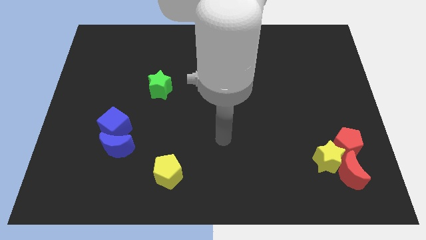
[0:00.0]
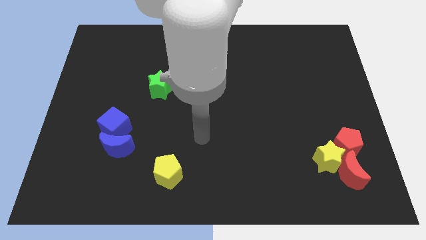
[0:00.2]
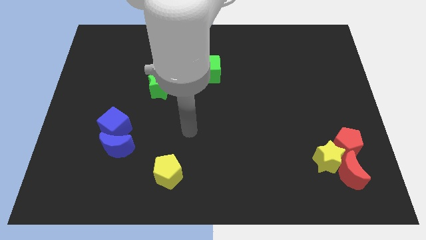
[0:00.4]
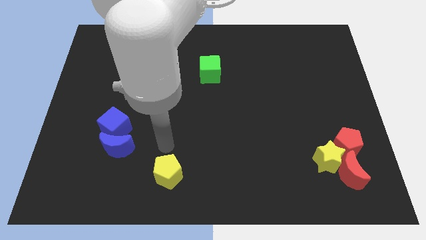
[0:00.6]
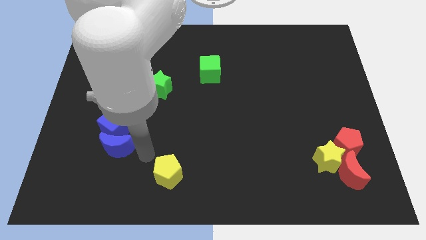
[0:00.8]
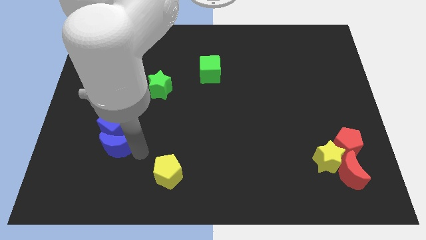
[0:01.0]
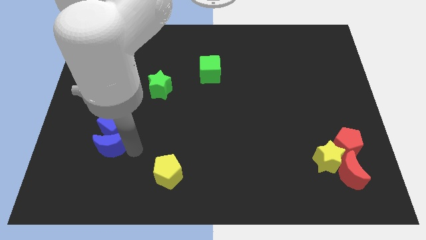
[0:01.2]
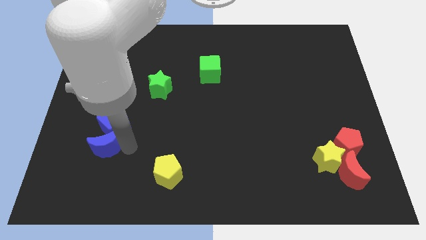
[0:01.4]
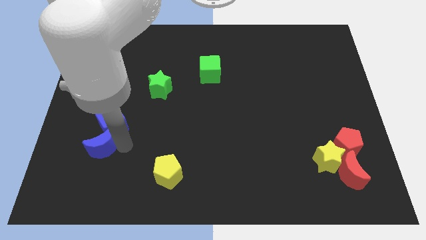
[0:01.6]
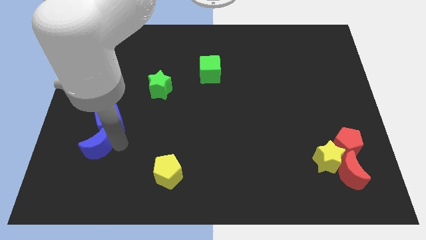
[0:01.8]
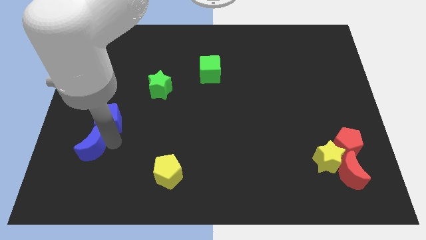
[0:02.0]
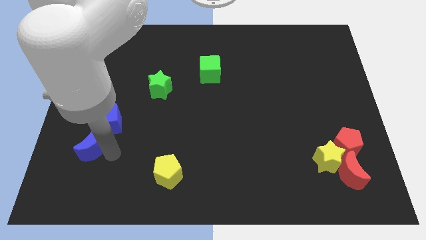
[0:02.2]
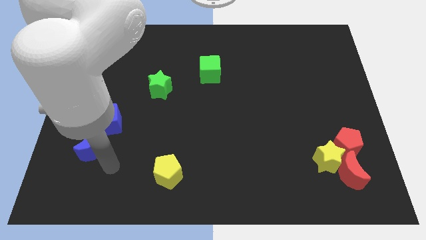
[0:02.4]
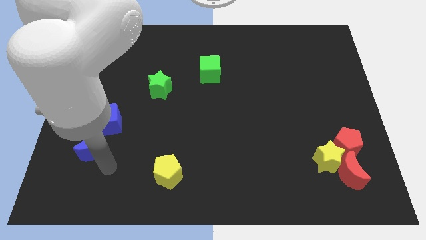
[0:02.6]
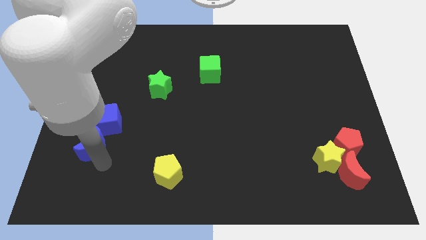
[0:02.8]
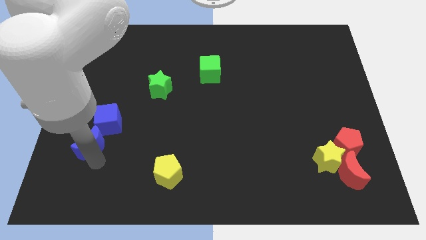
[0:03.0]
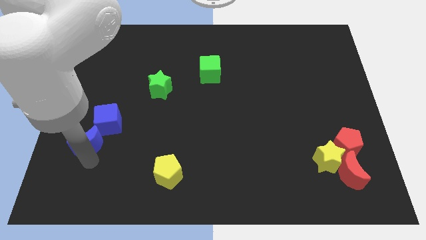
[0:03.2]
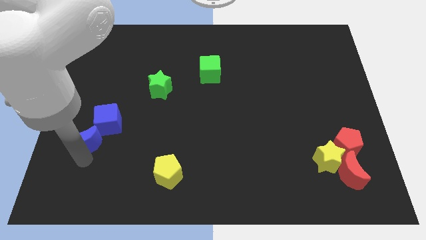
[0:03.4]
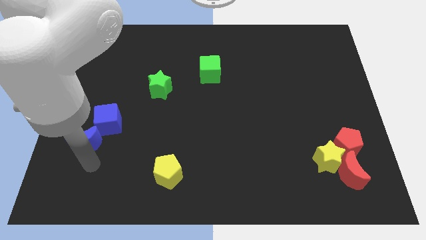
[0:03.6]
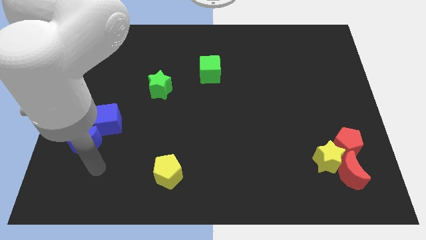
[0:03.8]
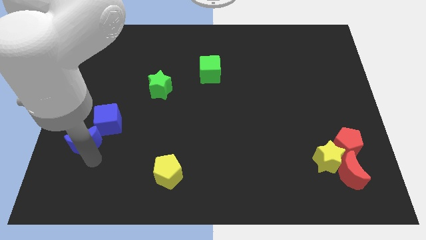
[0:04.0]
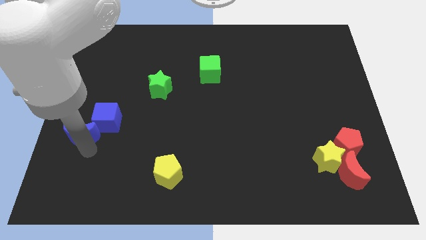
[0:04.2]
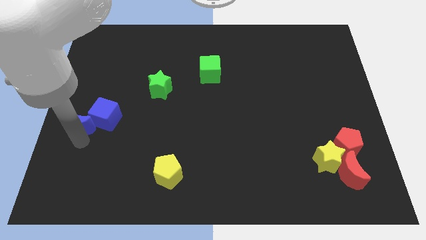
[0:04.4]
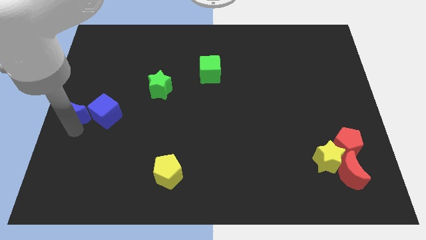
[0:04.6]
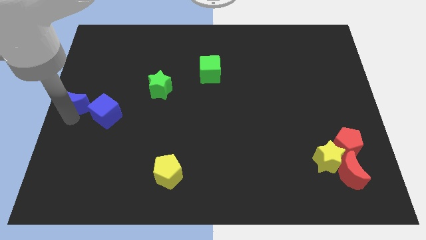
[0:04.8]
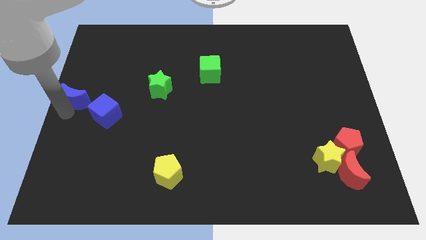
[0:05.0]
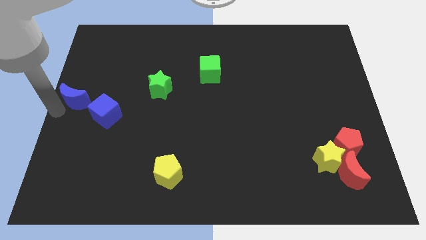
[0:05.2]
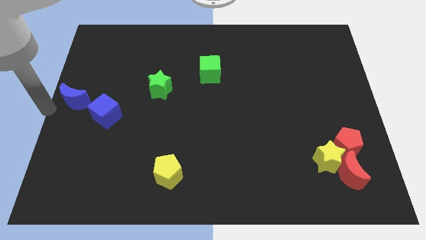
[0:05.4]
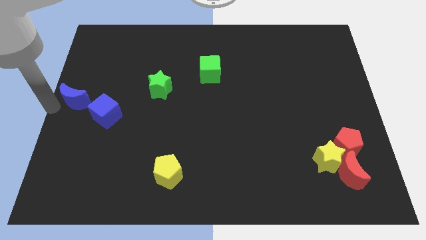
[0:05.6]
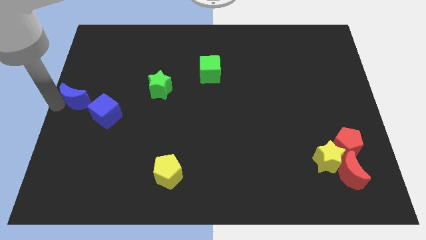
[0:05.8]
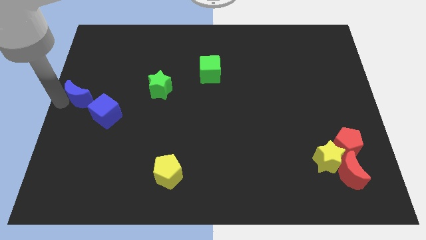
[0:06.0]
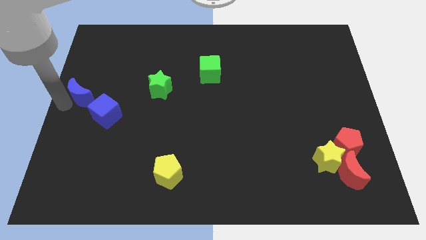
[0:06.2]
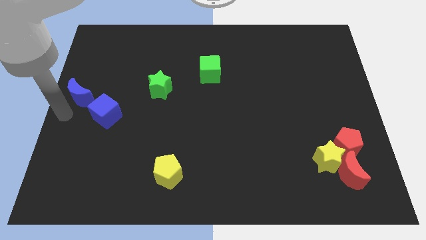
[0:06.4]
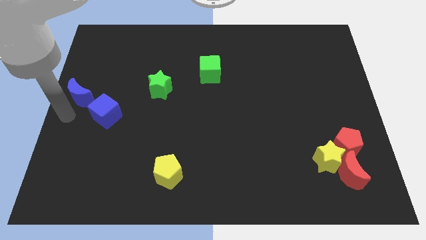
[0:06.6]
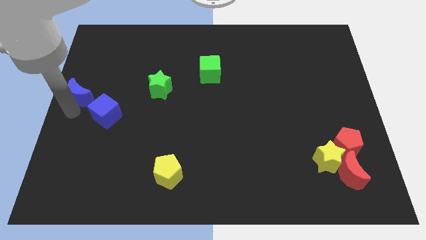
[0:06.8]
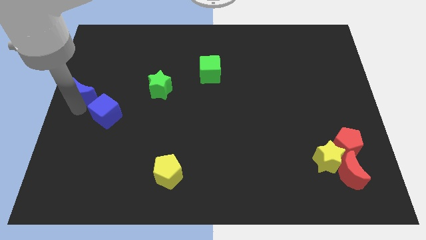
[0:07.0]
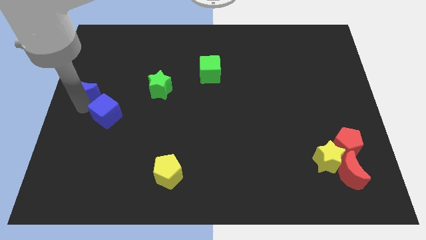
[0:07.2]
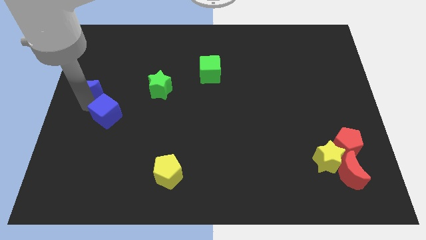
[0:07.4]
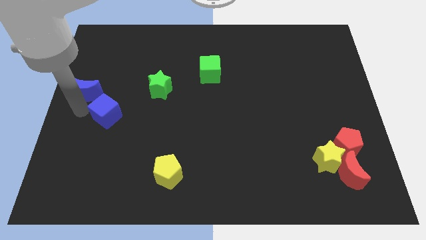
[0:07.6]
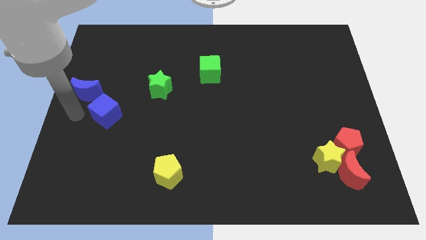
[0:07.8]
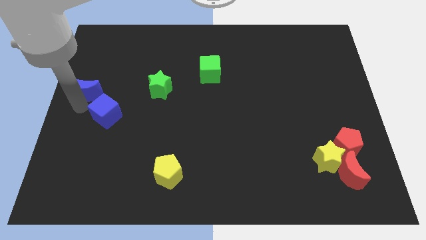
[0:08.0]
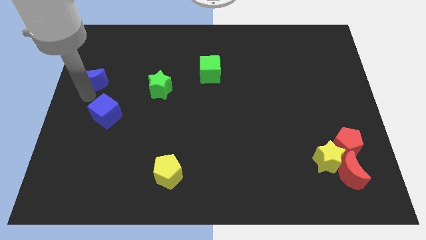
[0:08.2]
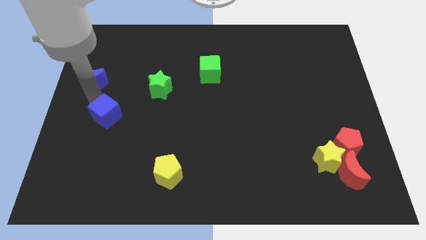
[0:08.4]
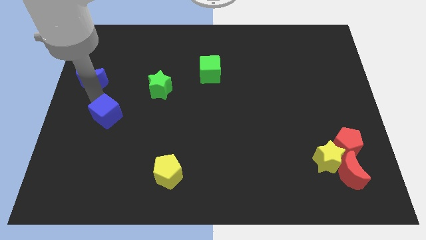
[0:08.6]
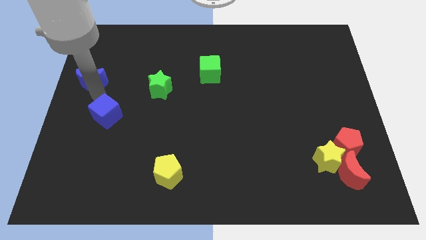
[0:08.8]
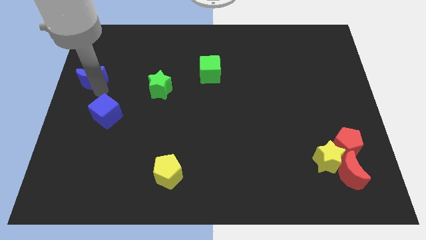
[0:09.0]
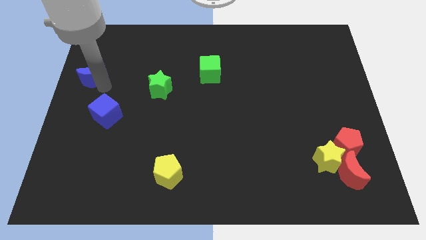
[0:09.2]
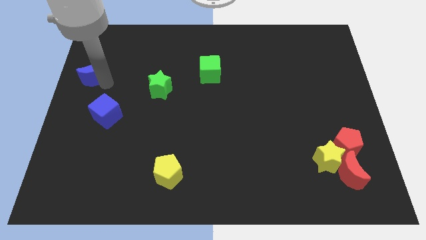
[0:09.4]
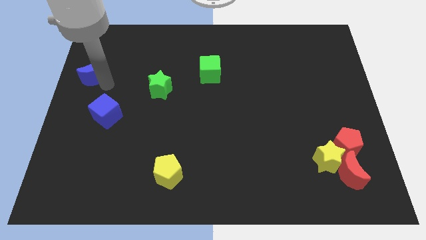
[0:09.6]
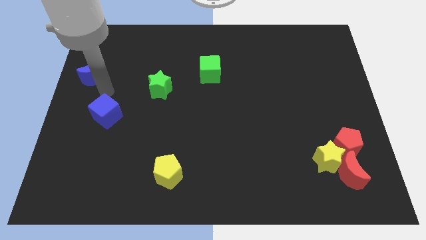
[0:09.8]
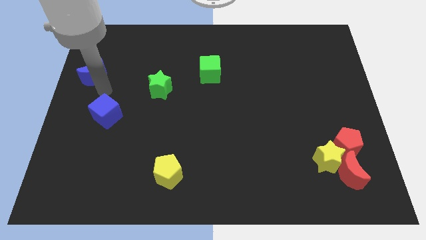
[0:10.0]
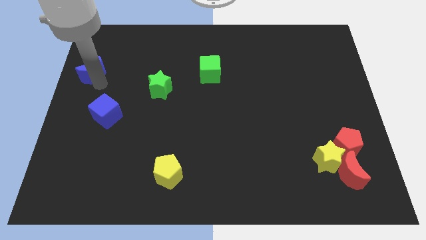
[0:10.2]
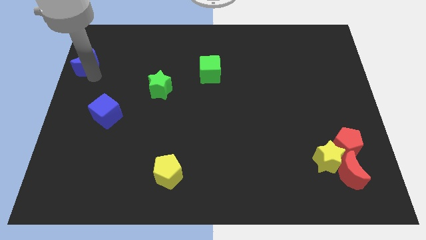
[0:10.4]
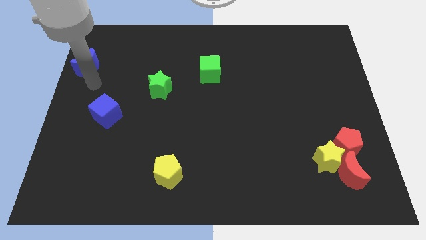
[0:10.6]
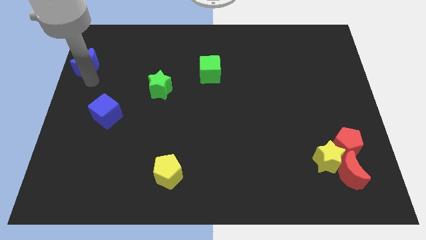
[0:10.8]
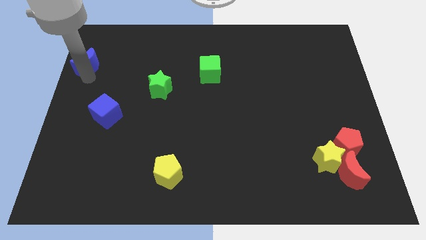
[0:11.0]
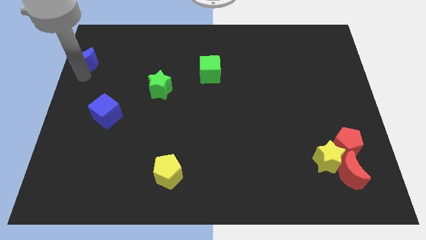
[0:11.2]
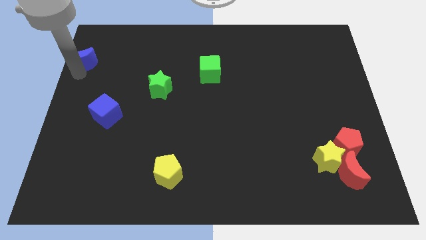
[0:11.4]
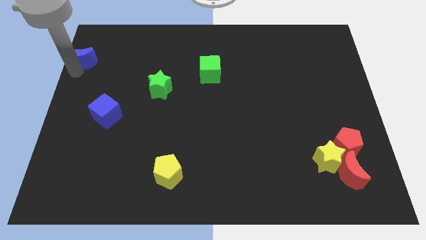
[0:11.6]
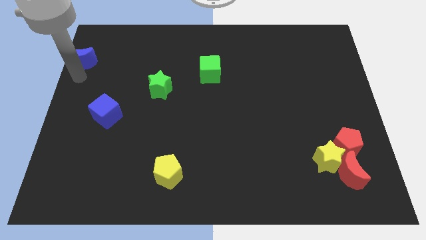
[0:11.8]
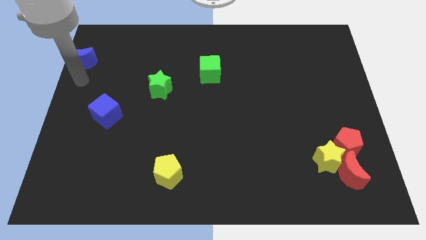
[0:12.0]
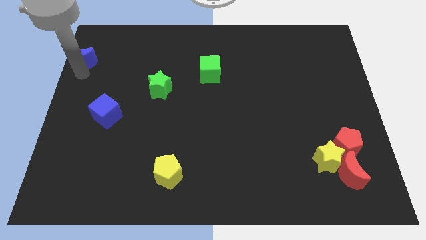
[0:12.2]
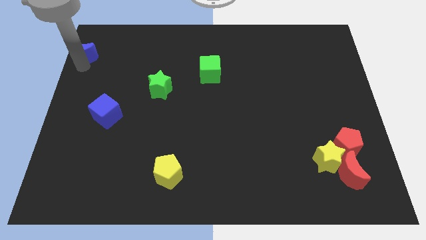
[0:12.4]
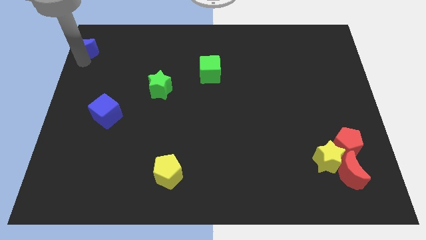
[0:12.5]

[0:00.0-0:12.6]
push the blue moon to the upper left corner
